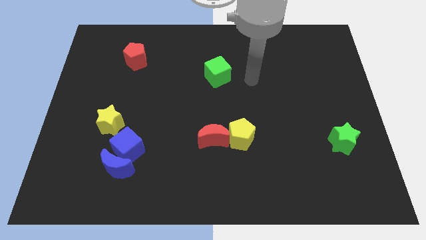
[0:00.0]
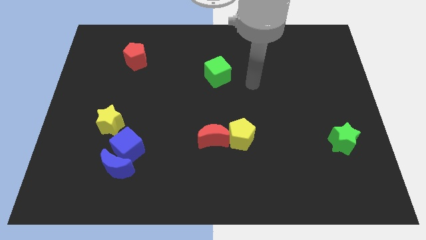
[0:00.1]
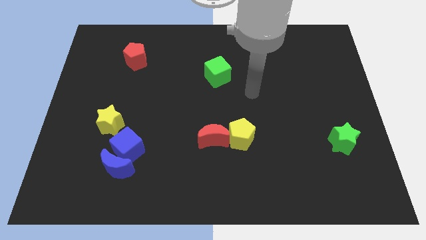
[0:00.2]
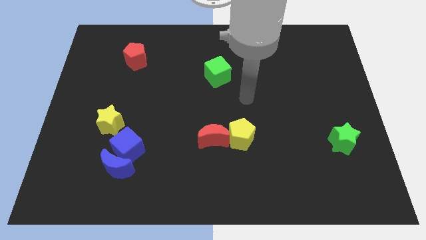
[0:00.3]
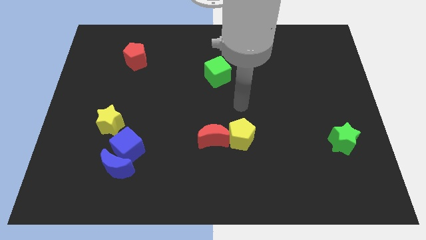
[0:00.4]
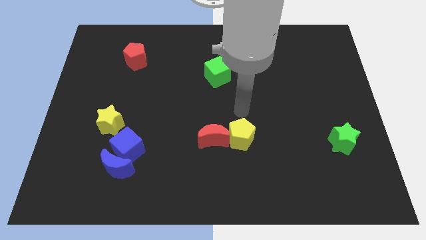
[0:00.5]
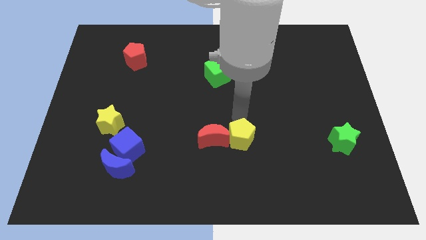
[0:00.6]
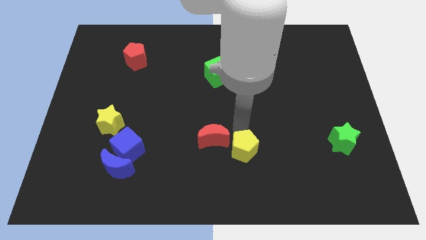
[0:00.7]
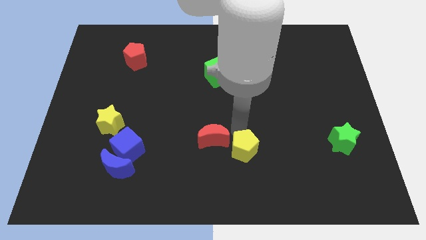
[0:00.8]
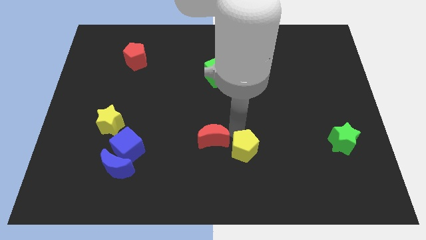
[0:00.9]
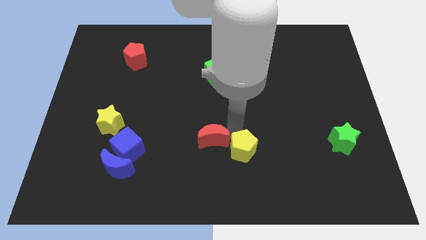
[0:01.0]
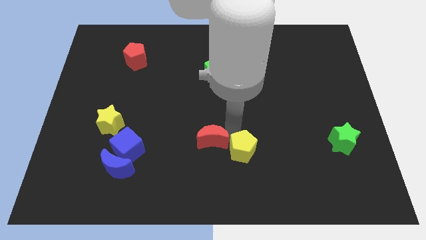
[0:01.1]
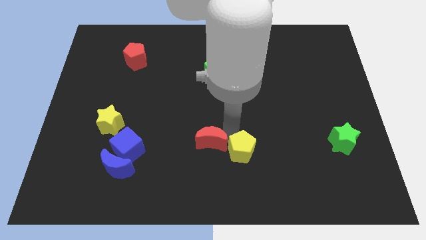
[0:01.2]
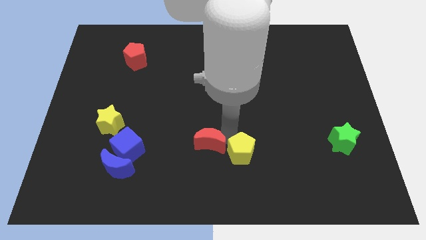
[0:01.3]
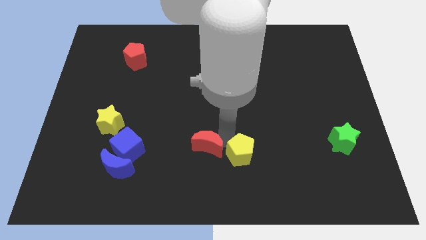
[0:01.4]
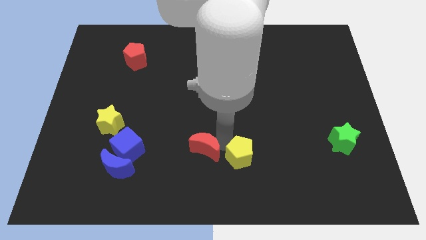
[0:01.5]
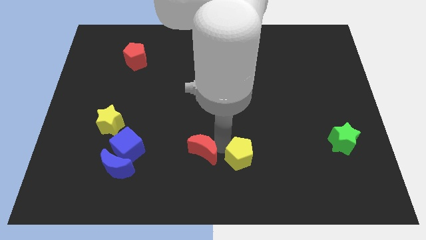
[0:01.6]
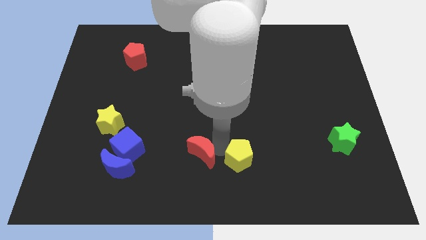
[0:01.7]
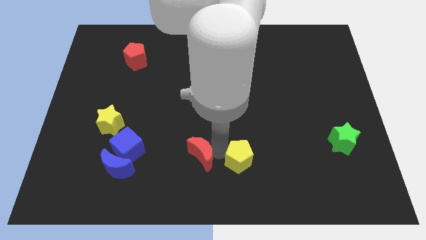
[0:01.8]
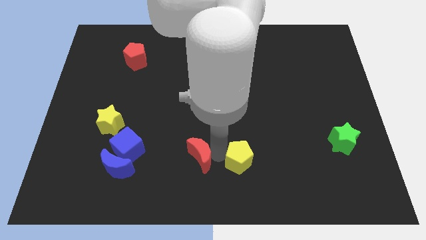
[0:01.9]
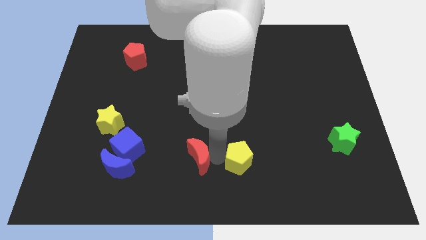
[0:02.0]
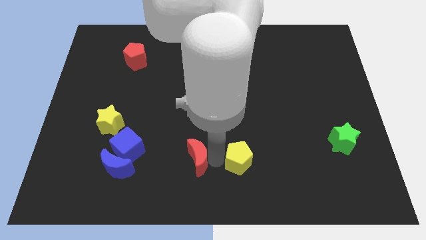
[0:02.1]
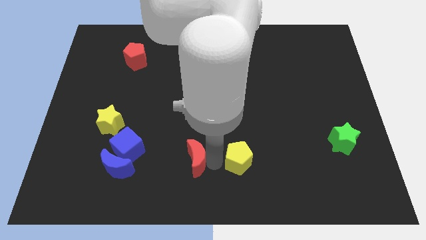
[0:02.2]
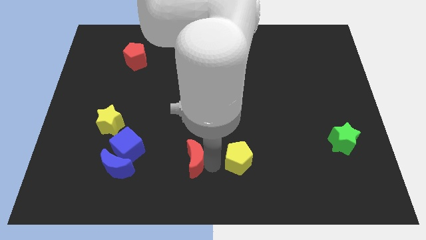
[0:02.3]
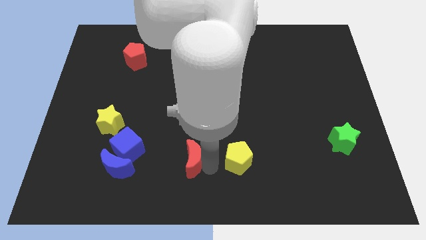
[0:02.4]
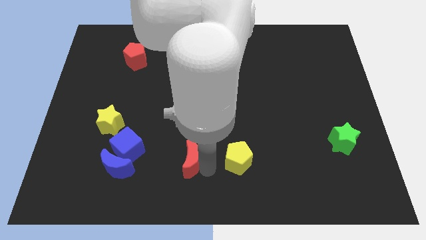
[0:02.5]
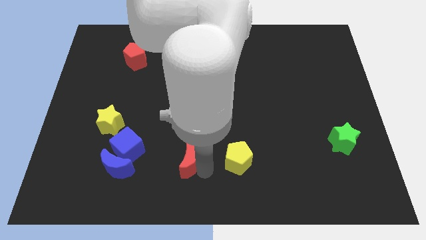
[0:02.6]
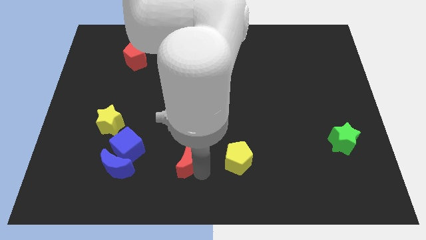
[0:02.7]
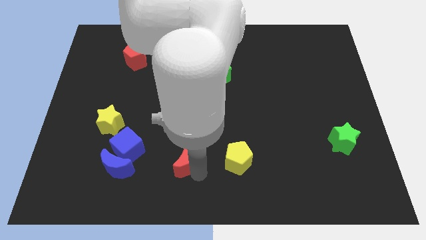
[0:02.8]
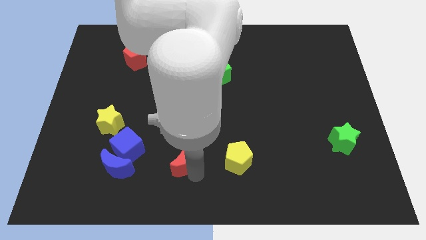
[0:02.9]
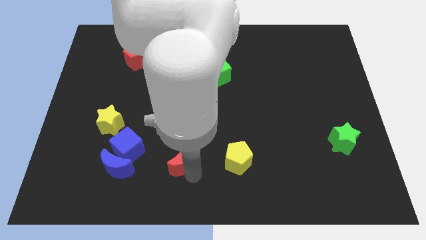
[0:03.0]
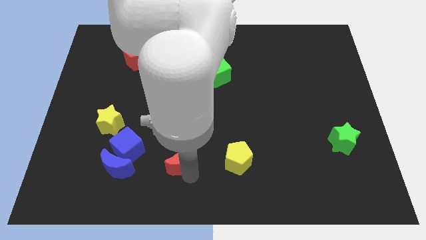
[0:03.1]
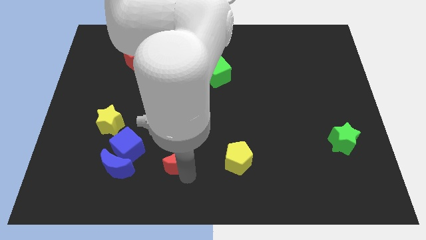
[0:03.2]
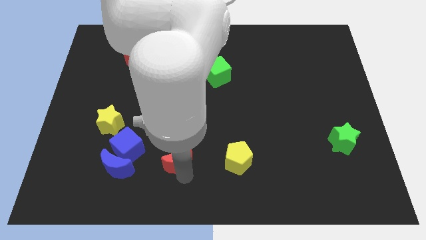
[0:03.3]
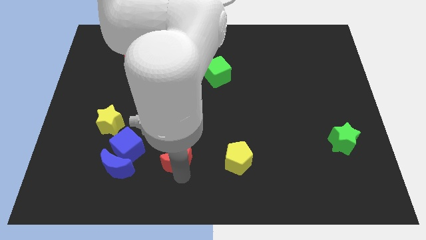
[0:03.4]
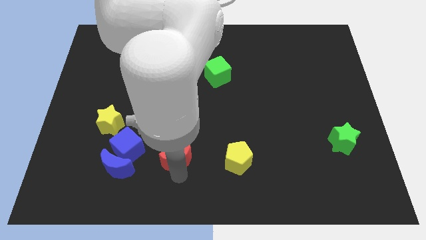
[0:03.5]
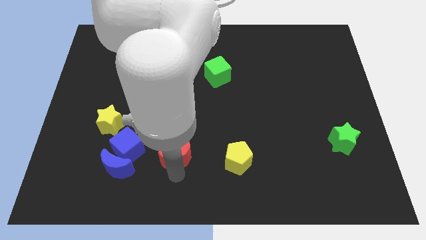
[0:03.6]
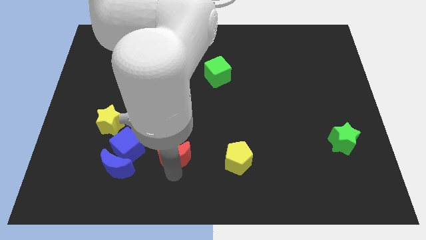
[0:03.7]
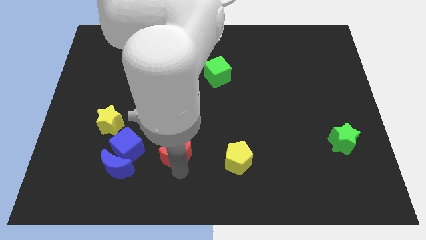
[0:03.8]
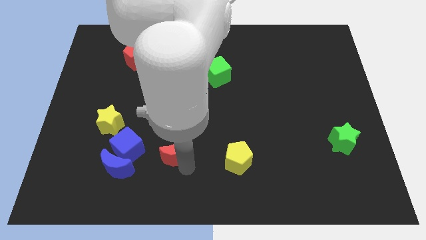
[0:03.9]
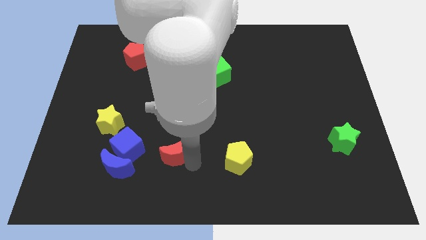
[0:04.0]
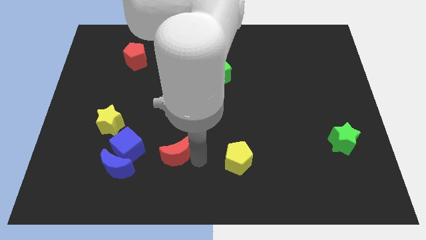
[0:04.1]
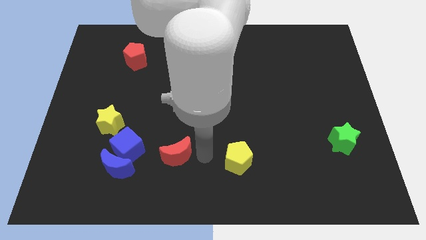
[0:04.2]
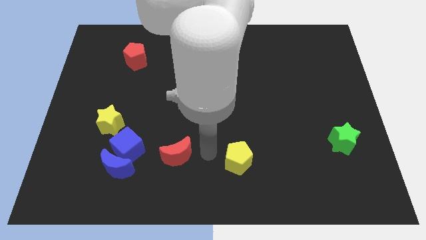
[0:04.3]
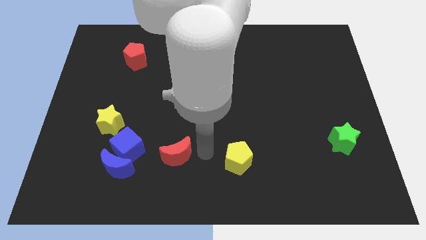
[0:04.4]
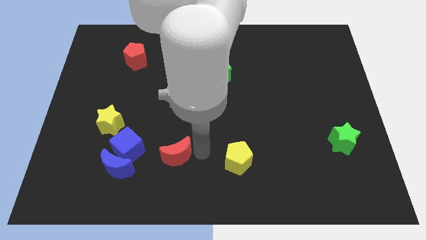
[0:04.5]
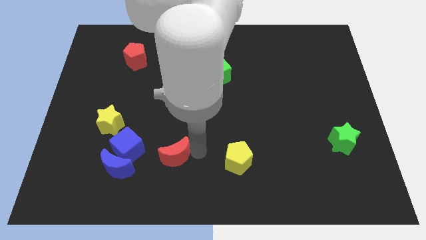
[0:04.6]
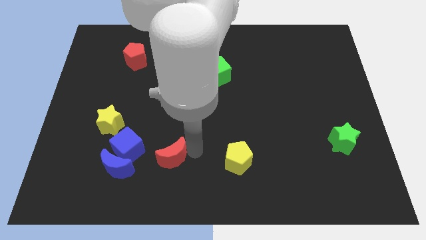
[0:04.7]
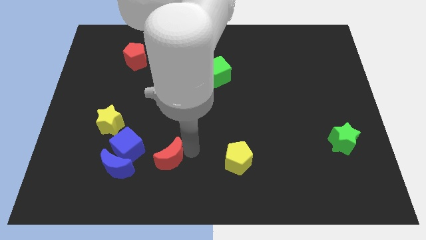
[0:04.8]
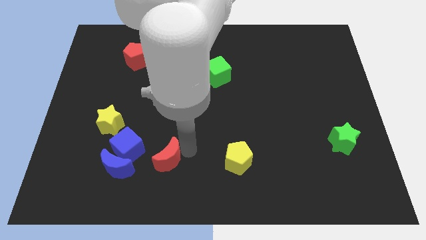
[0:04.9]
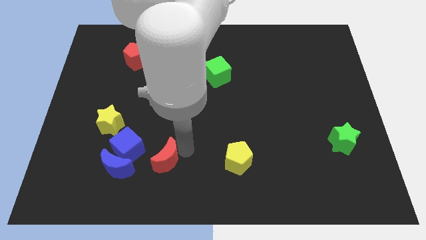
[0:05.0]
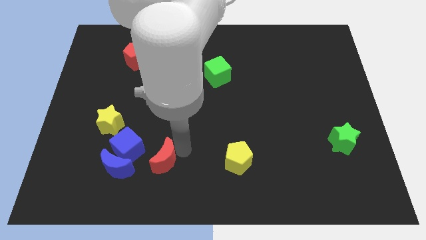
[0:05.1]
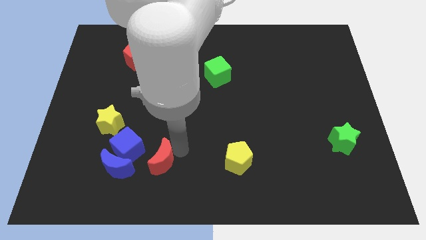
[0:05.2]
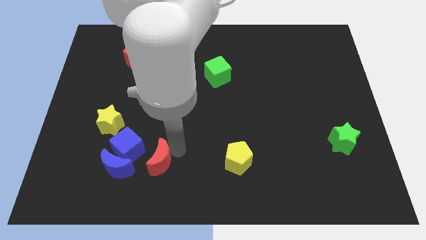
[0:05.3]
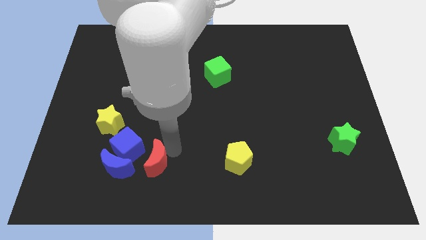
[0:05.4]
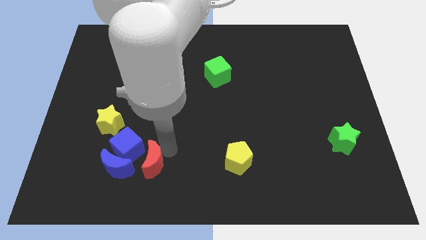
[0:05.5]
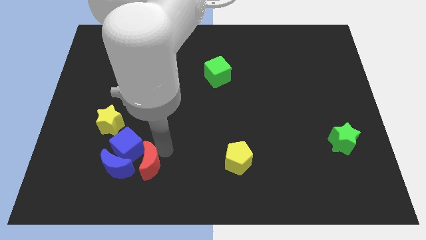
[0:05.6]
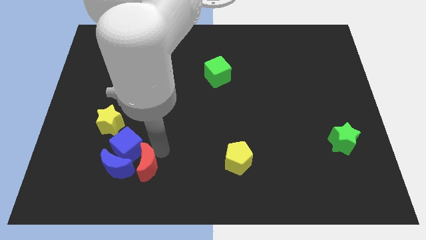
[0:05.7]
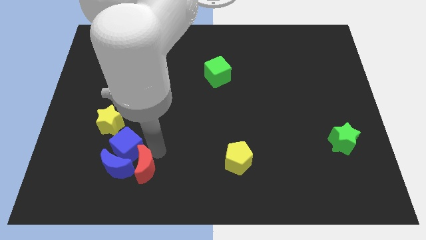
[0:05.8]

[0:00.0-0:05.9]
slide the red moon next to the blue moon
